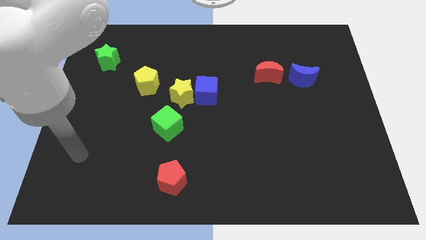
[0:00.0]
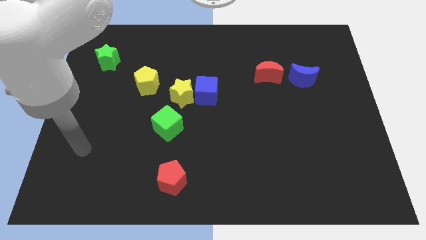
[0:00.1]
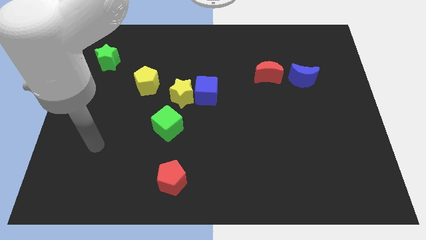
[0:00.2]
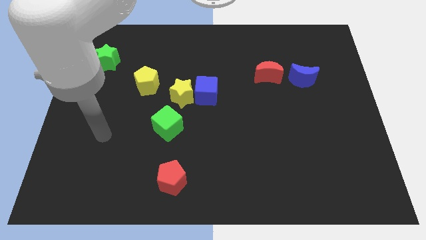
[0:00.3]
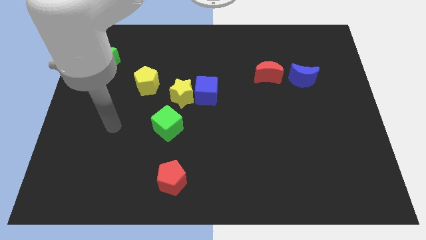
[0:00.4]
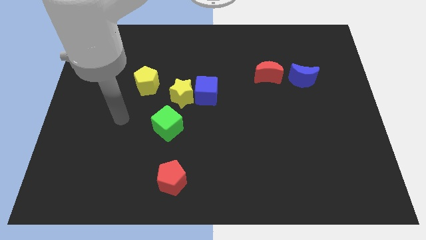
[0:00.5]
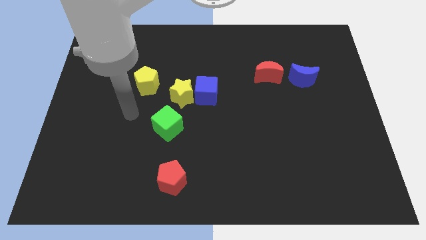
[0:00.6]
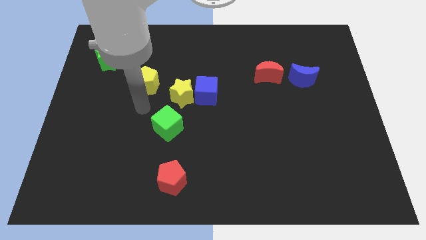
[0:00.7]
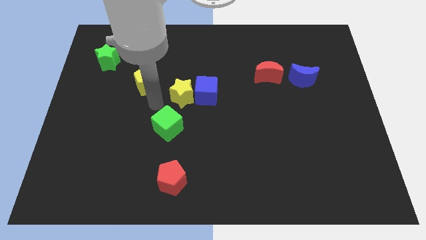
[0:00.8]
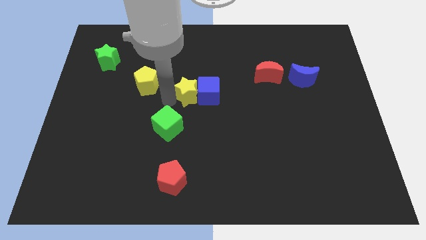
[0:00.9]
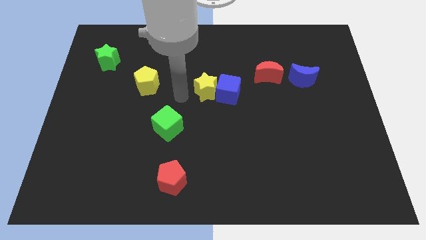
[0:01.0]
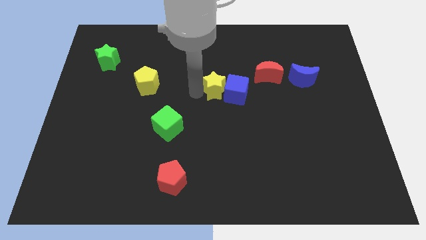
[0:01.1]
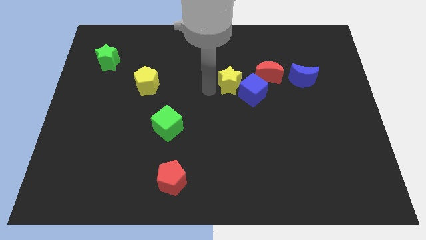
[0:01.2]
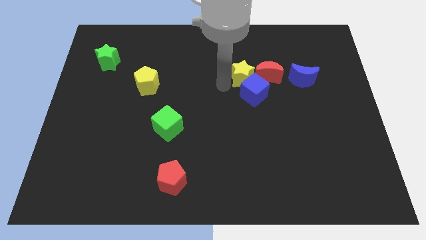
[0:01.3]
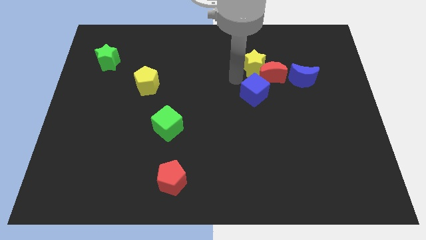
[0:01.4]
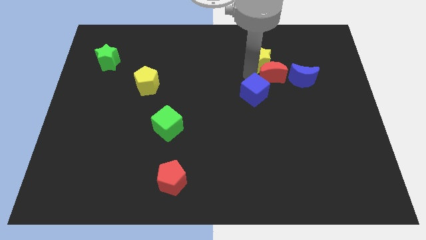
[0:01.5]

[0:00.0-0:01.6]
move the blue cube away from the yellow star

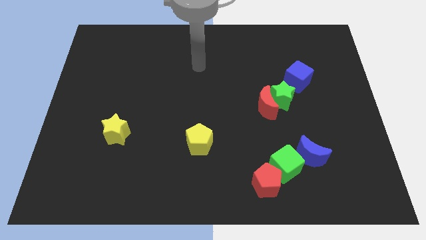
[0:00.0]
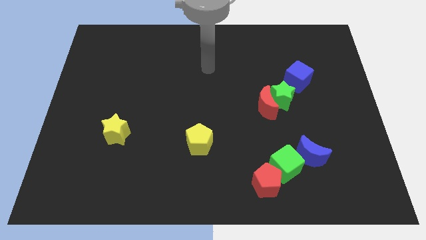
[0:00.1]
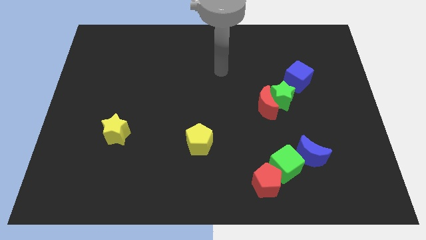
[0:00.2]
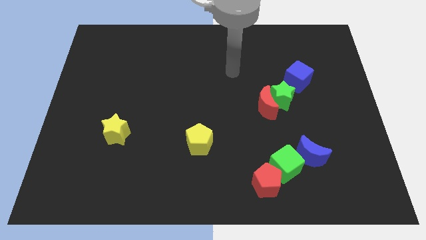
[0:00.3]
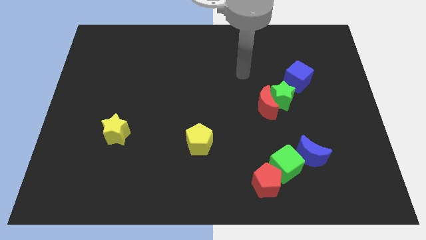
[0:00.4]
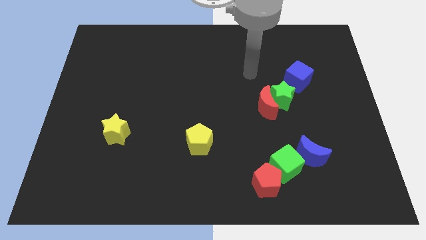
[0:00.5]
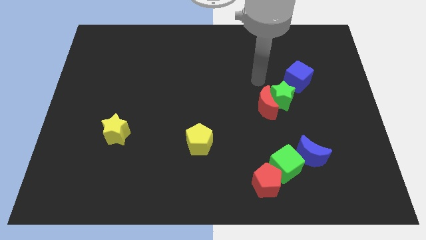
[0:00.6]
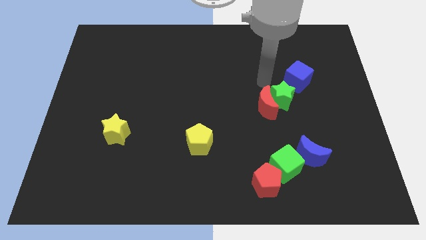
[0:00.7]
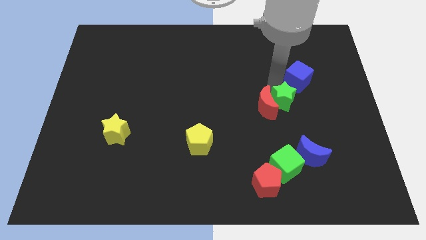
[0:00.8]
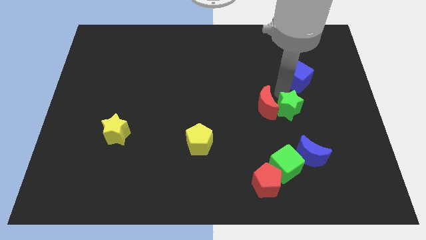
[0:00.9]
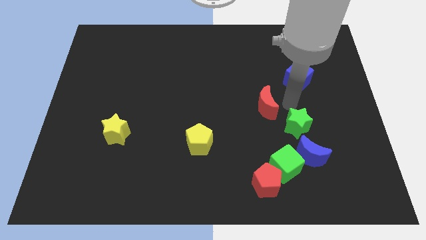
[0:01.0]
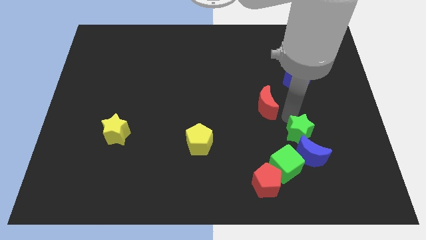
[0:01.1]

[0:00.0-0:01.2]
move the red moon away from the green star

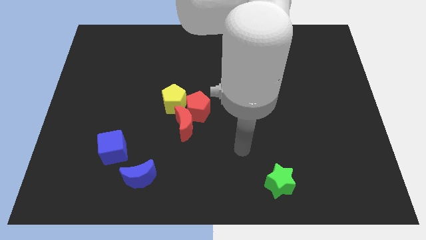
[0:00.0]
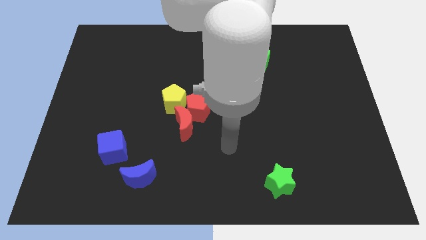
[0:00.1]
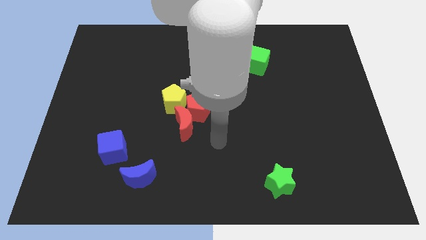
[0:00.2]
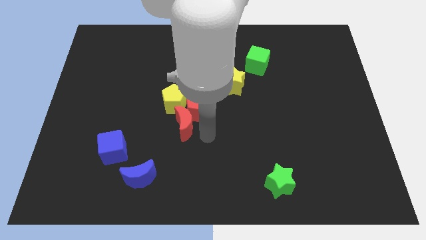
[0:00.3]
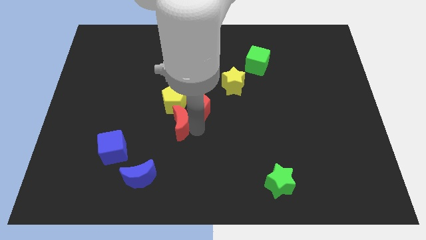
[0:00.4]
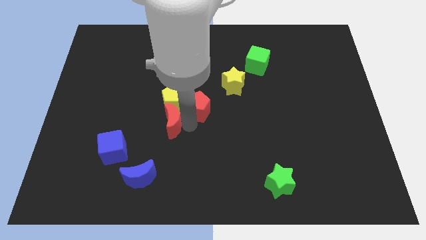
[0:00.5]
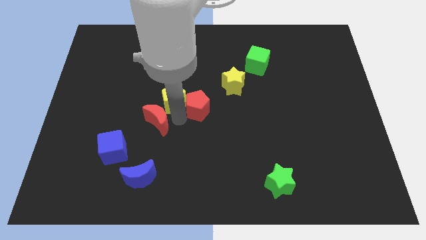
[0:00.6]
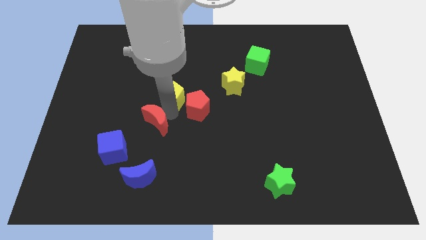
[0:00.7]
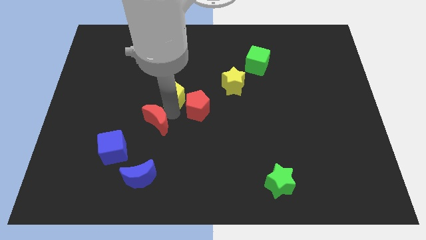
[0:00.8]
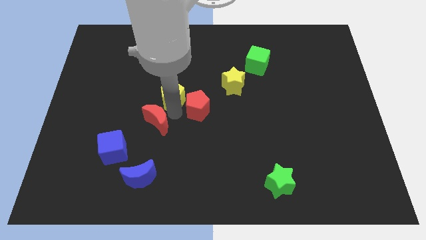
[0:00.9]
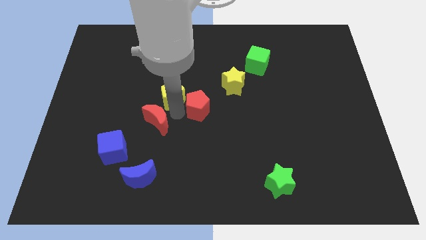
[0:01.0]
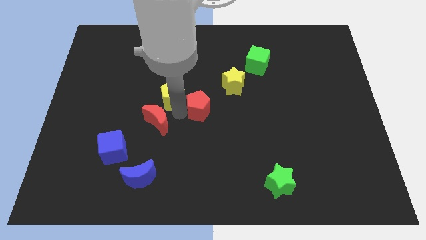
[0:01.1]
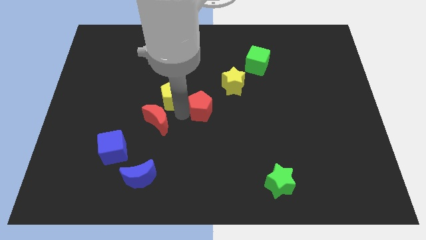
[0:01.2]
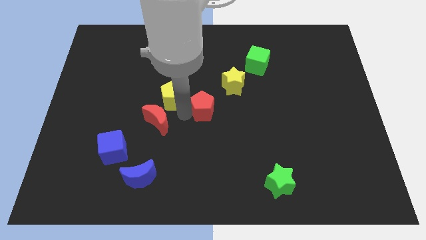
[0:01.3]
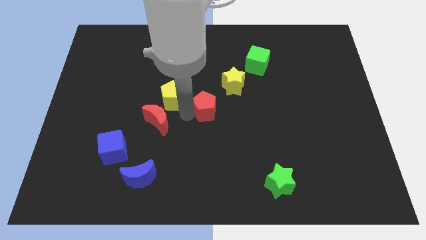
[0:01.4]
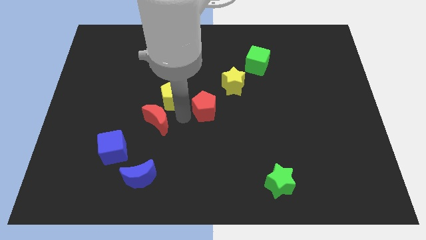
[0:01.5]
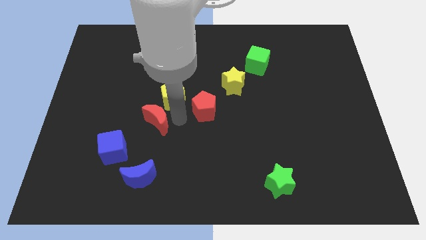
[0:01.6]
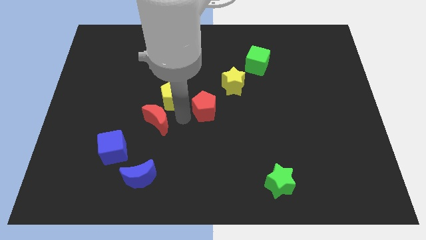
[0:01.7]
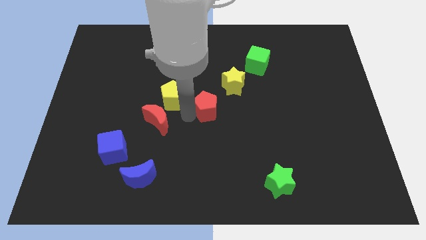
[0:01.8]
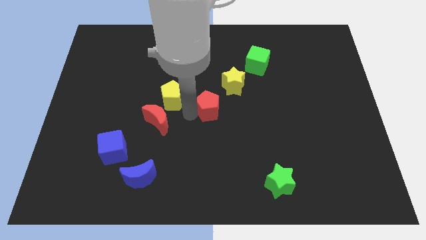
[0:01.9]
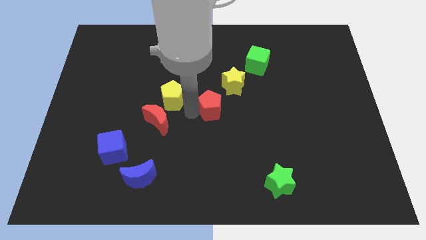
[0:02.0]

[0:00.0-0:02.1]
pull the red pentagon apart from the red moon and yellow pentagon

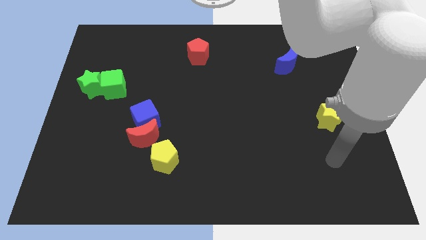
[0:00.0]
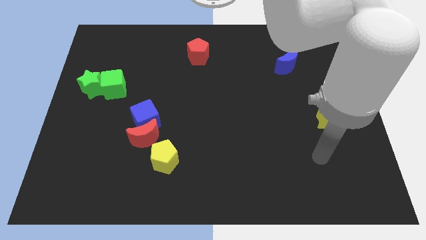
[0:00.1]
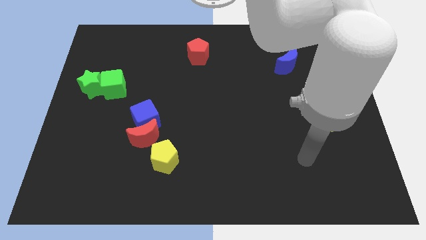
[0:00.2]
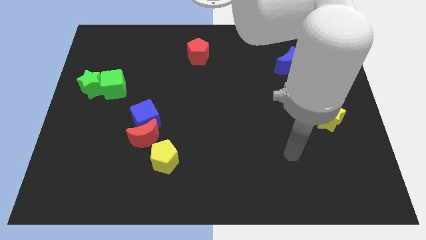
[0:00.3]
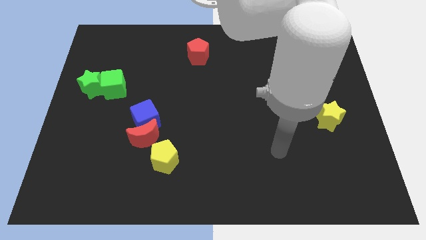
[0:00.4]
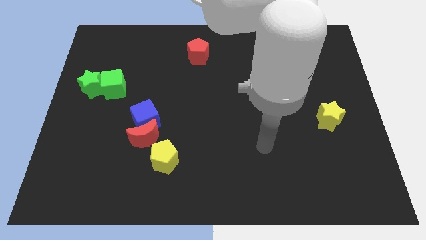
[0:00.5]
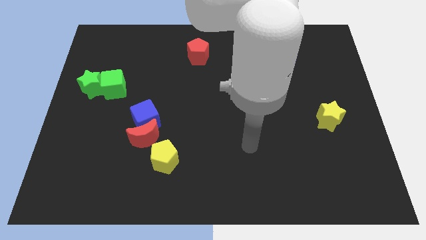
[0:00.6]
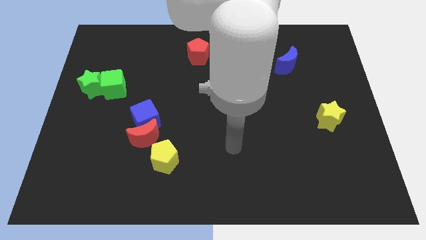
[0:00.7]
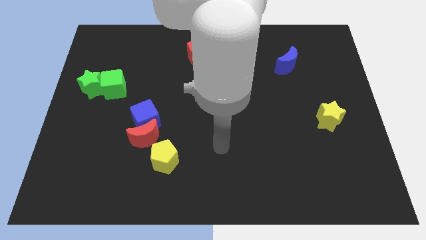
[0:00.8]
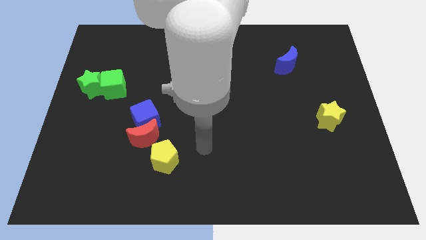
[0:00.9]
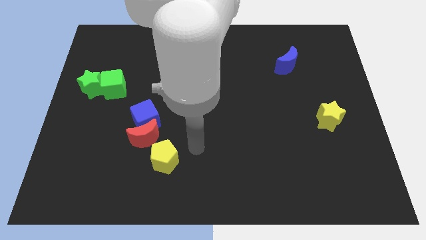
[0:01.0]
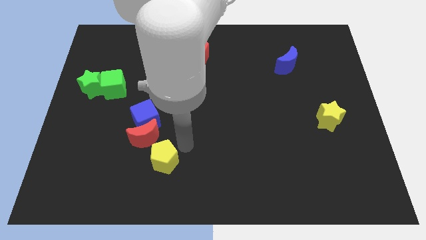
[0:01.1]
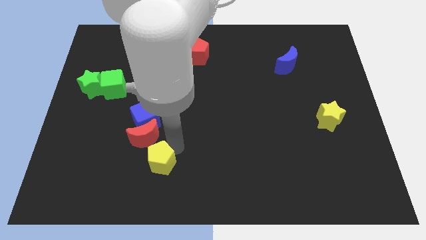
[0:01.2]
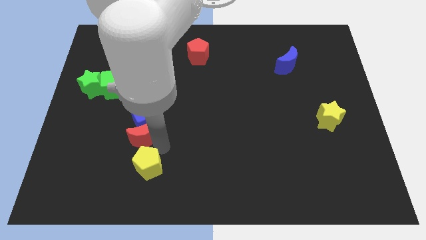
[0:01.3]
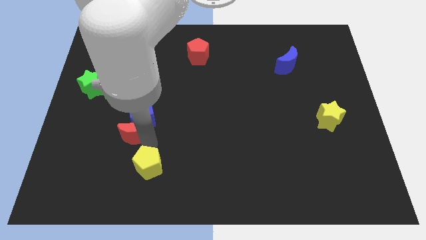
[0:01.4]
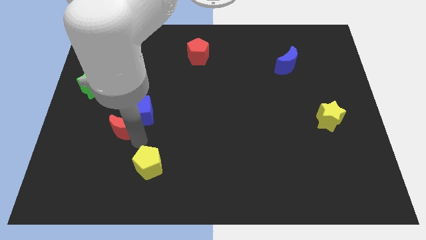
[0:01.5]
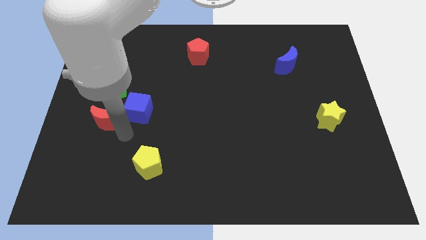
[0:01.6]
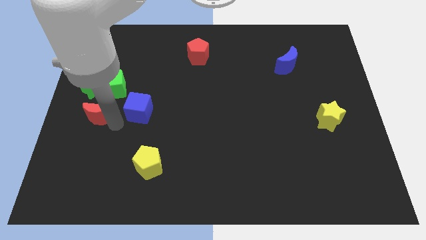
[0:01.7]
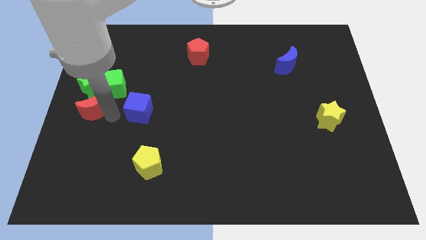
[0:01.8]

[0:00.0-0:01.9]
move the blue cube away from the red moon

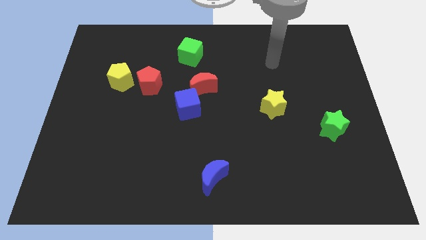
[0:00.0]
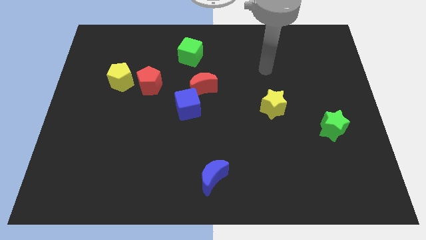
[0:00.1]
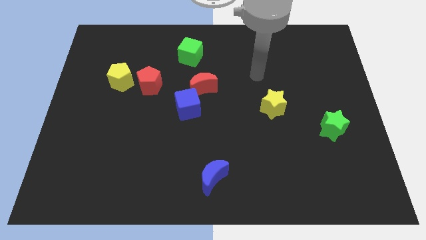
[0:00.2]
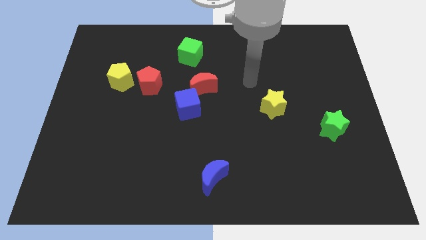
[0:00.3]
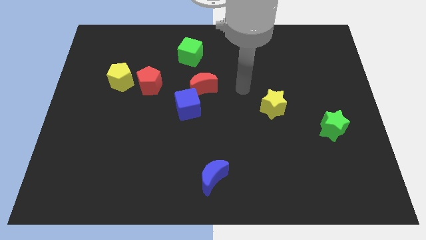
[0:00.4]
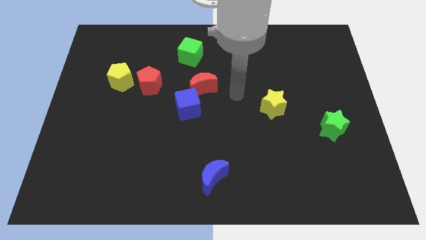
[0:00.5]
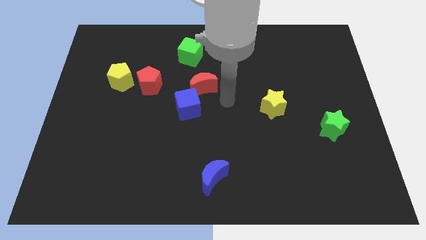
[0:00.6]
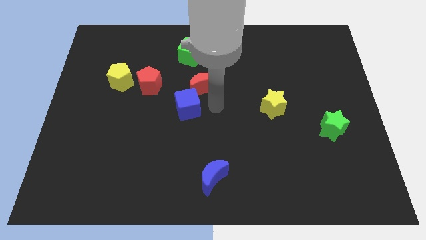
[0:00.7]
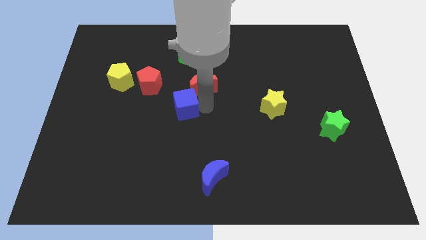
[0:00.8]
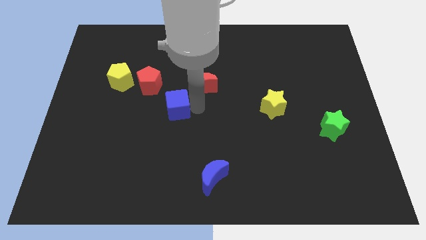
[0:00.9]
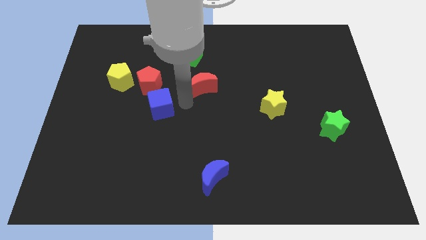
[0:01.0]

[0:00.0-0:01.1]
separate the red moon from the blue cube

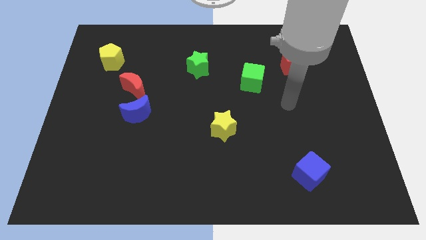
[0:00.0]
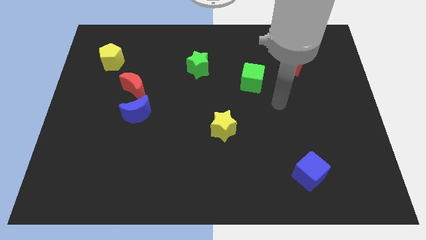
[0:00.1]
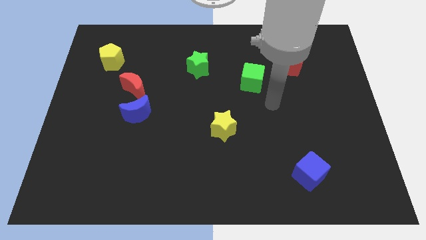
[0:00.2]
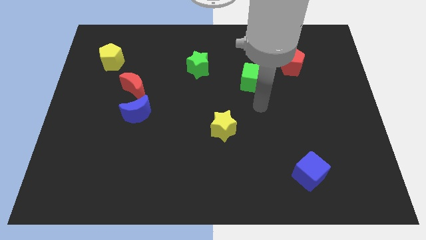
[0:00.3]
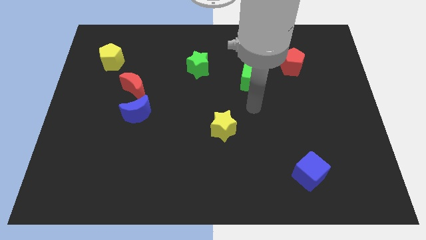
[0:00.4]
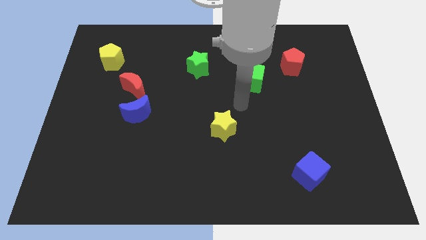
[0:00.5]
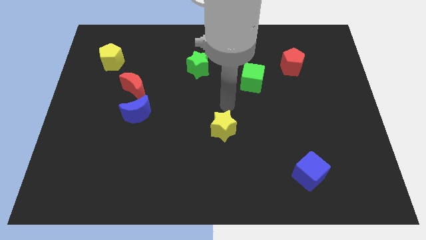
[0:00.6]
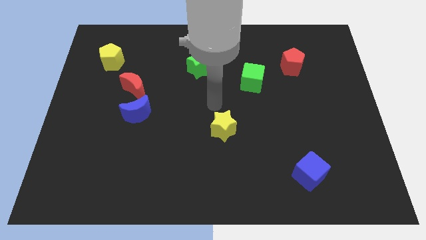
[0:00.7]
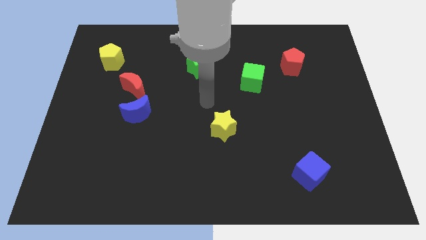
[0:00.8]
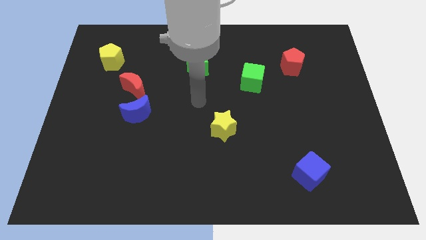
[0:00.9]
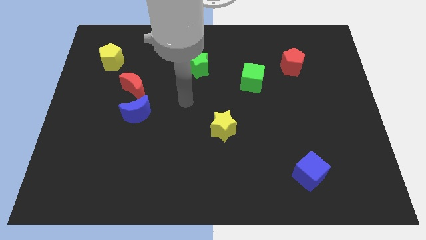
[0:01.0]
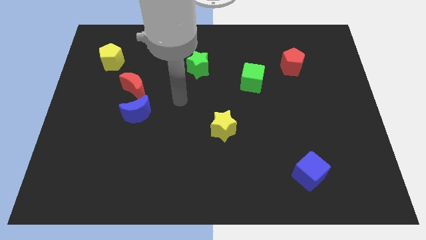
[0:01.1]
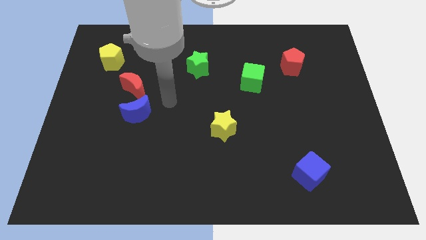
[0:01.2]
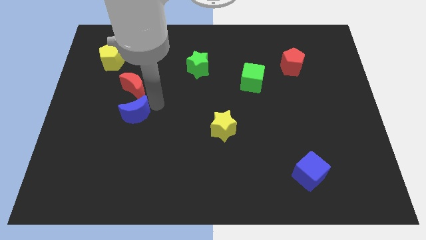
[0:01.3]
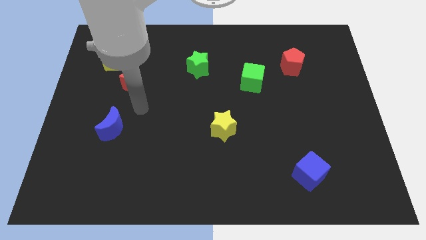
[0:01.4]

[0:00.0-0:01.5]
move the red moon away from the blue moon
